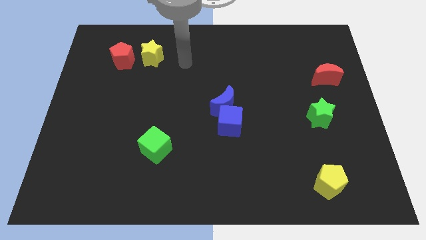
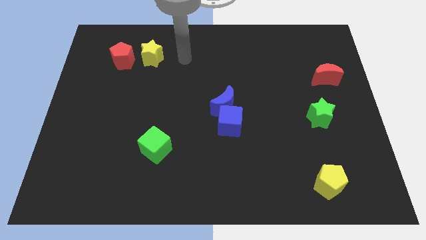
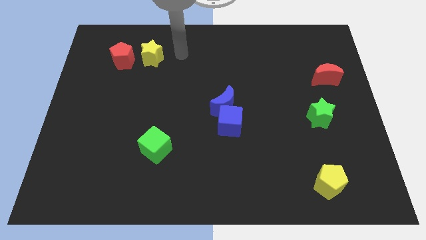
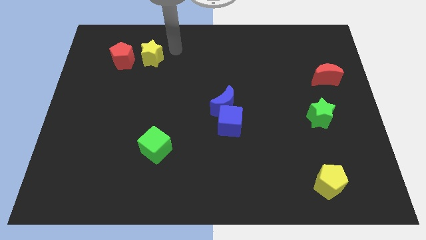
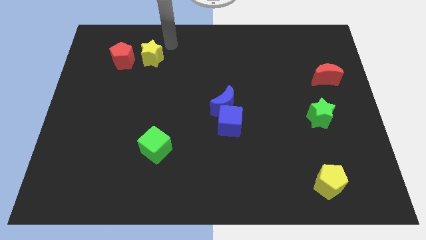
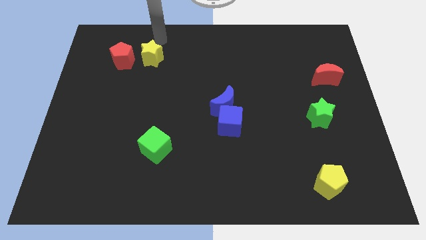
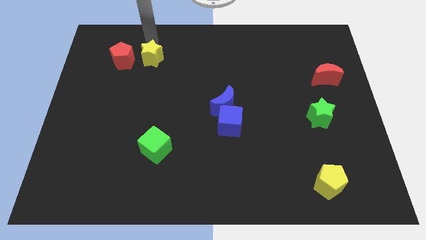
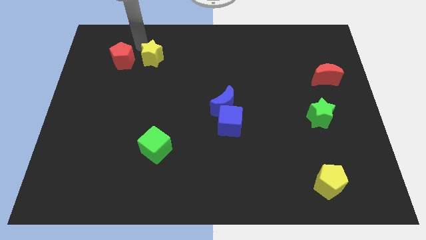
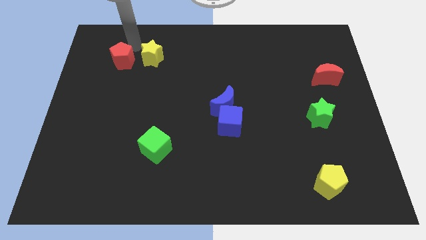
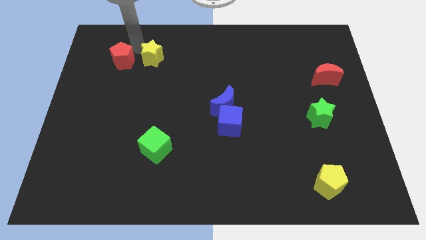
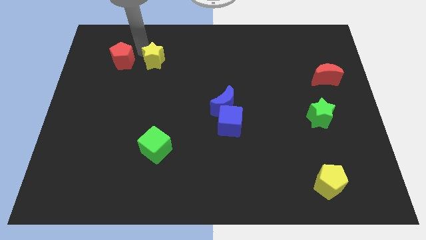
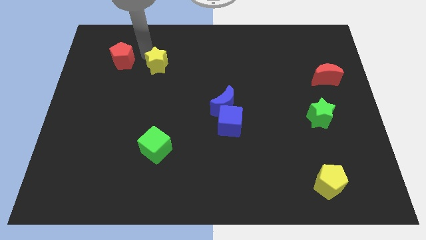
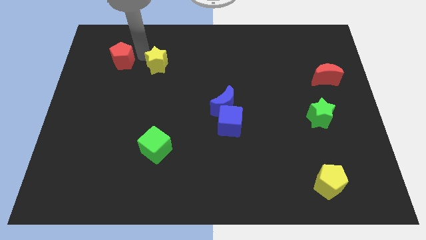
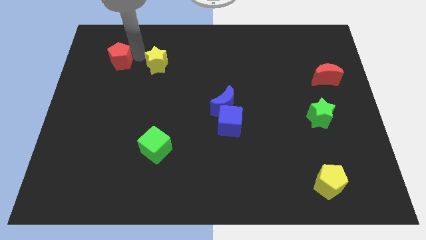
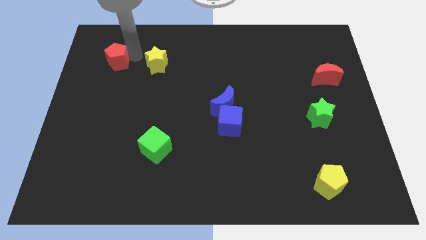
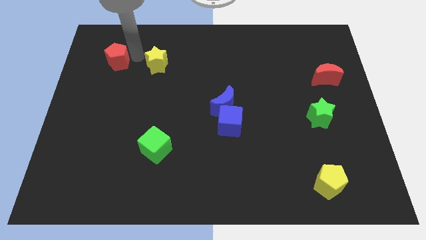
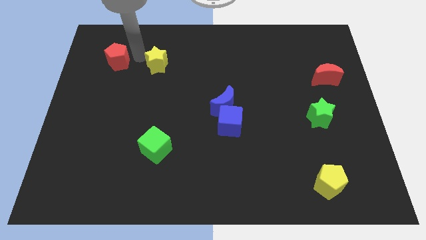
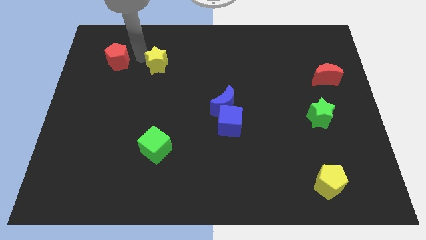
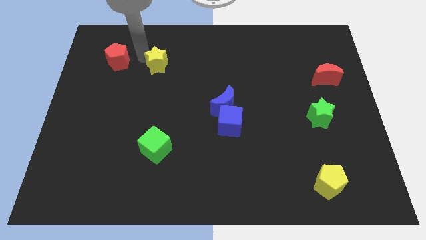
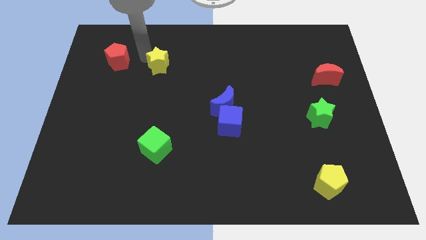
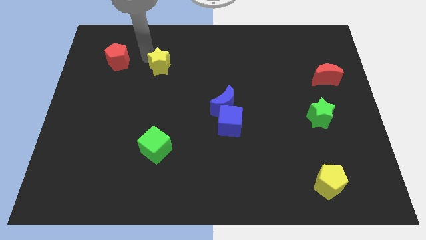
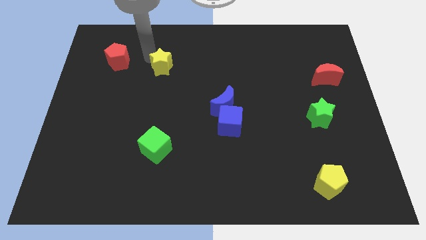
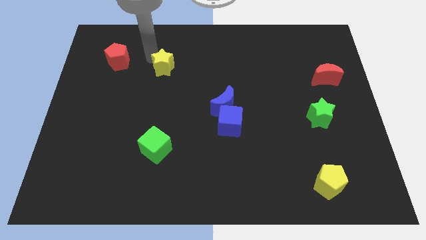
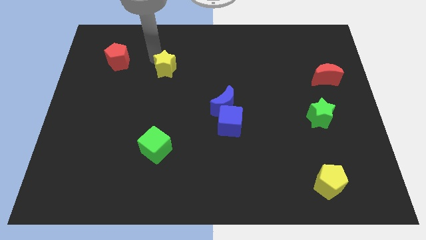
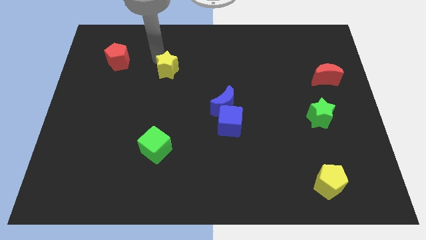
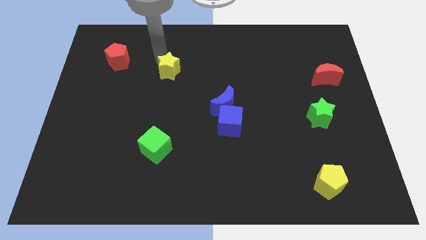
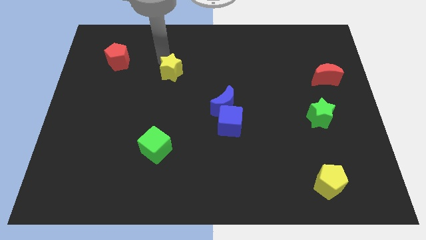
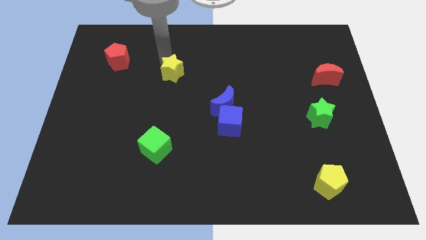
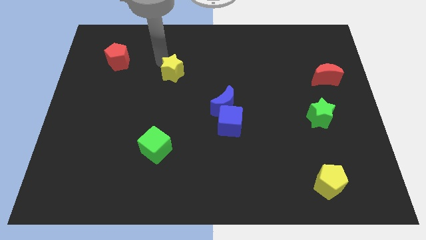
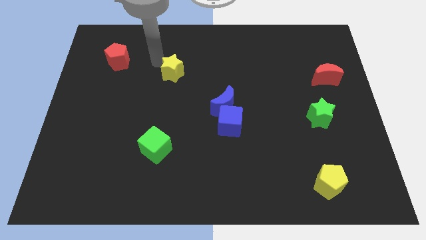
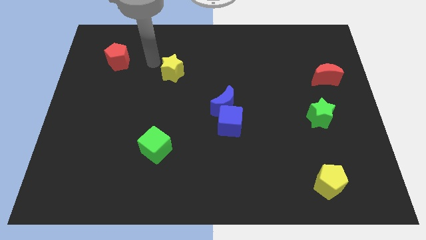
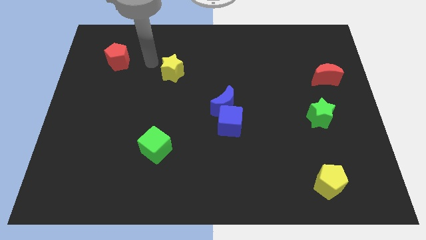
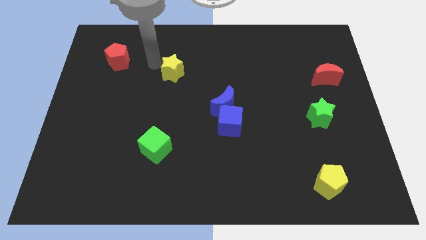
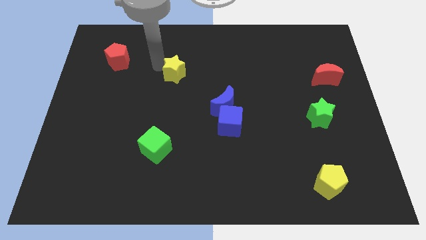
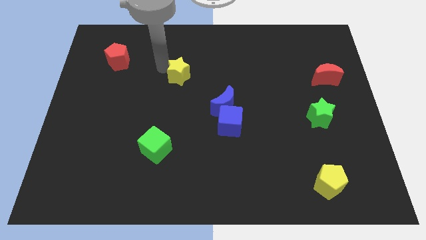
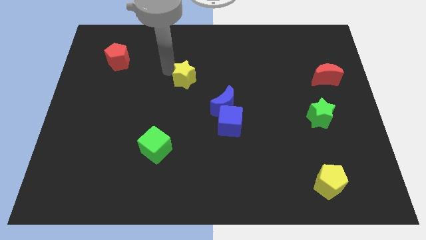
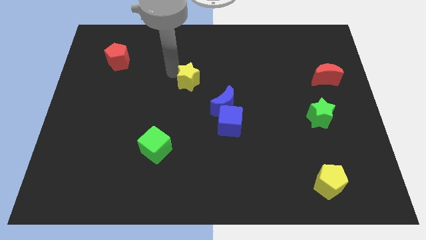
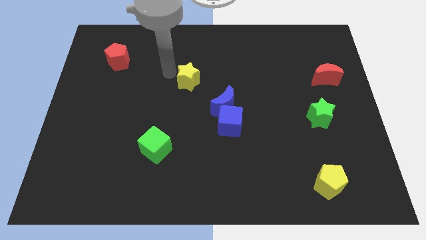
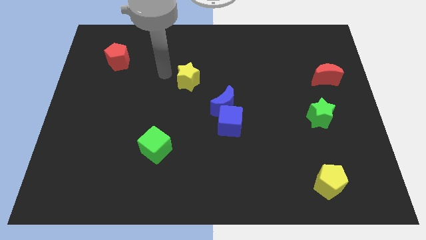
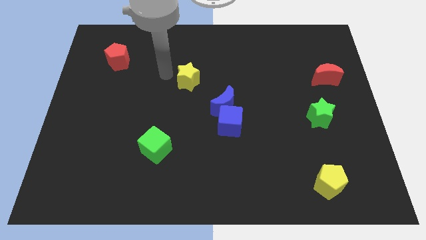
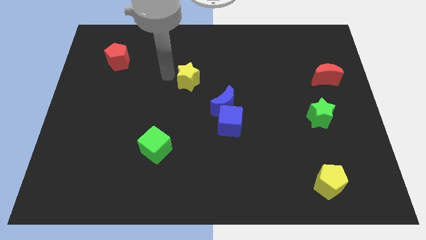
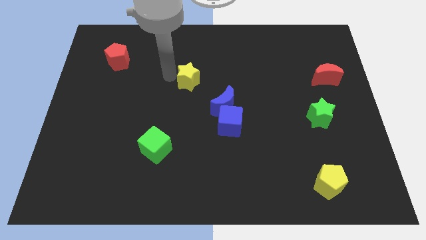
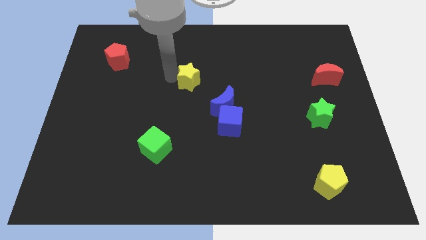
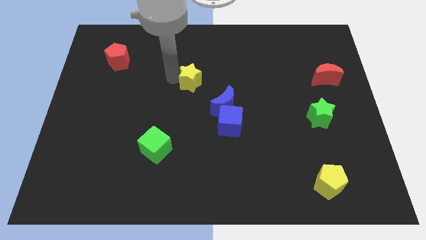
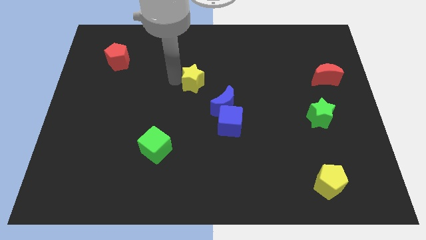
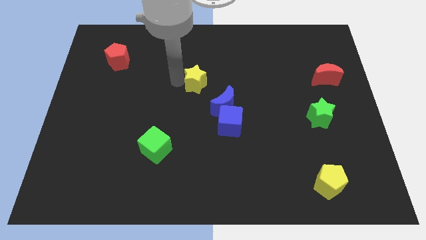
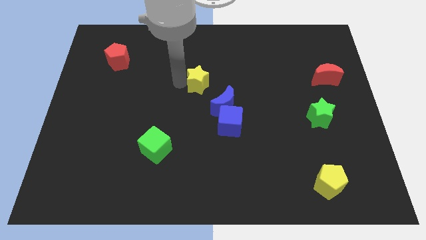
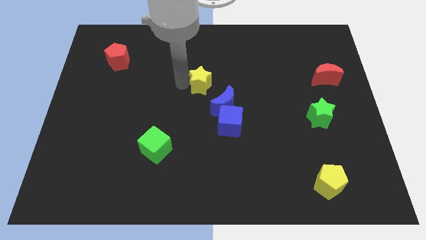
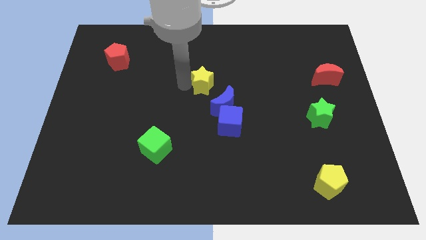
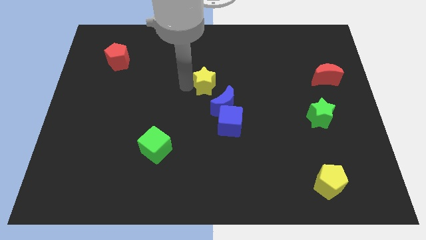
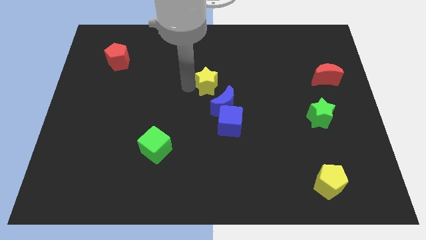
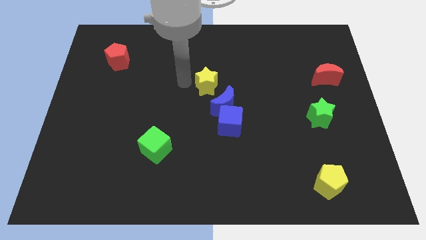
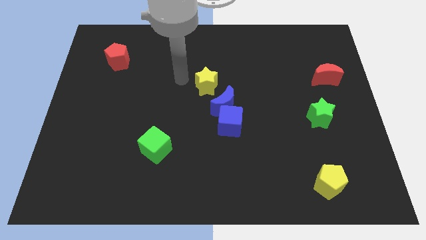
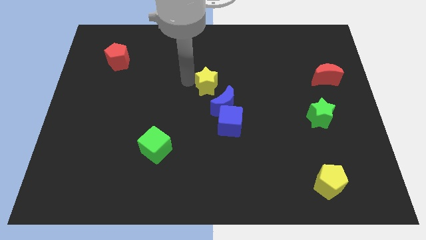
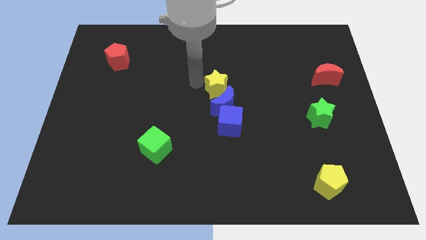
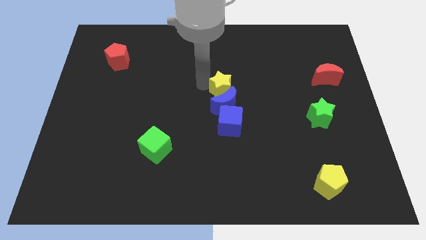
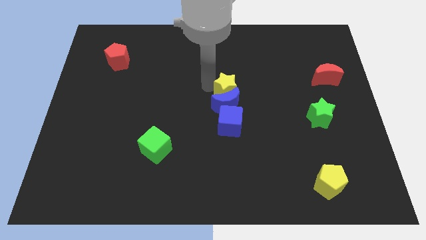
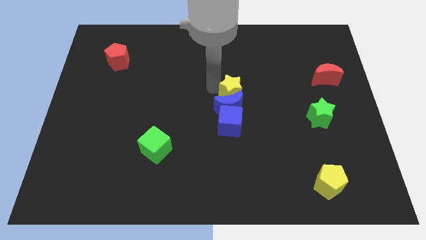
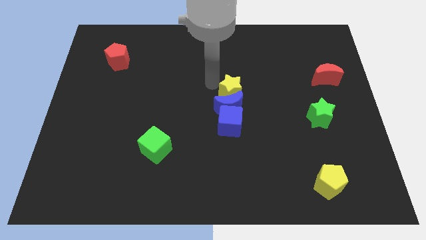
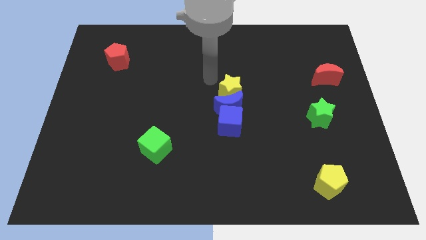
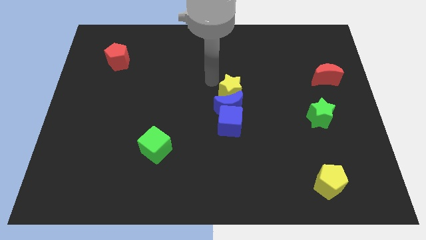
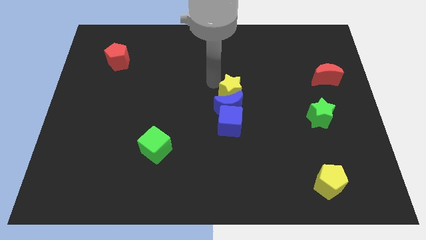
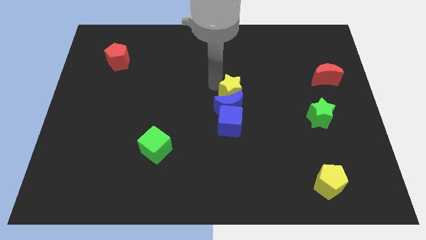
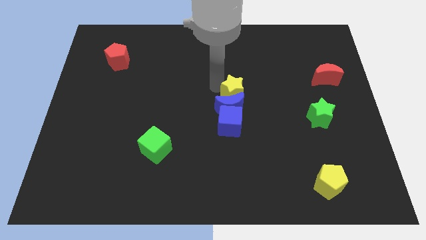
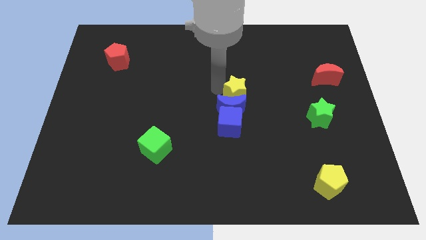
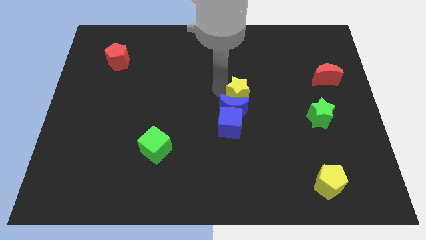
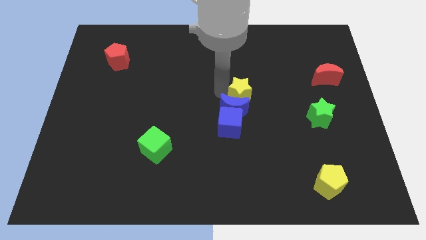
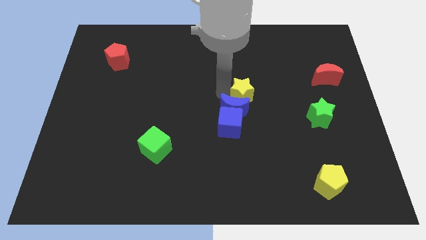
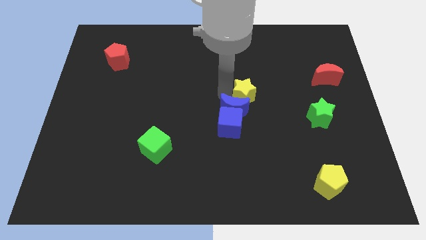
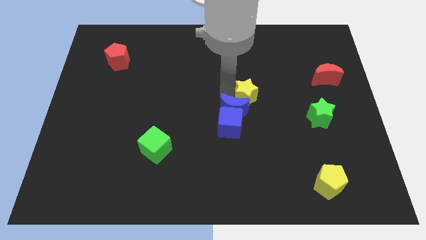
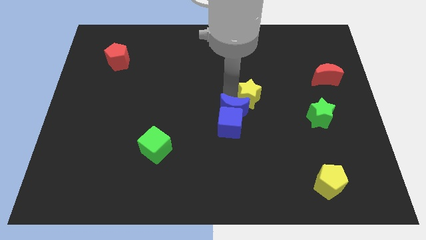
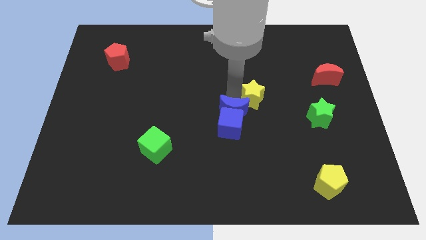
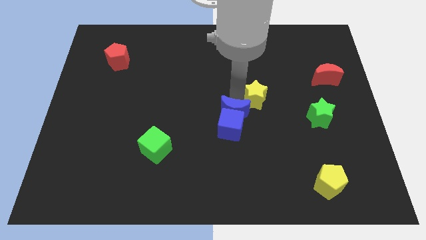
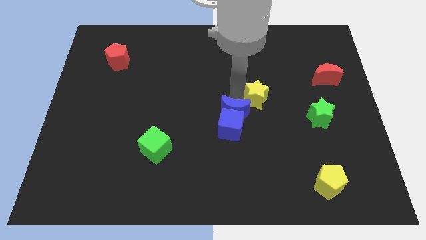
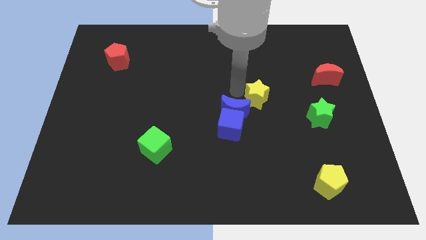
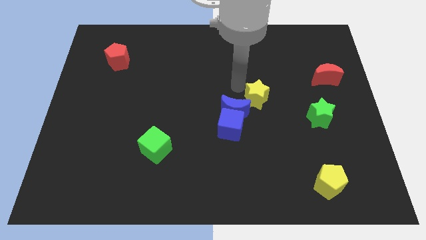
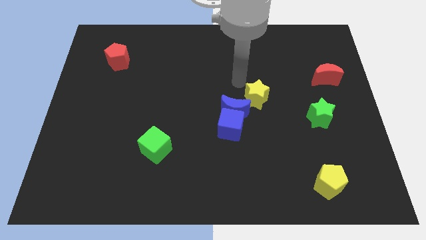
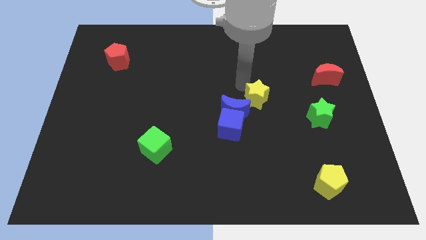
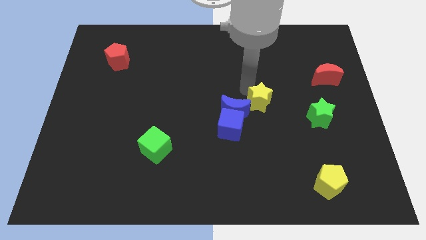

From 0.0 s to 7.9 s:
push the yellow star to the left side of the green star

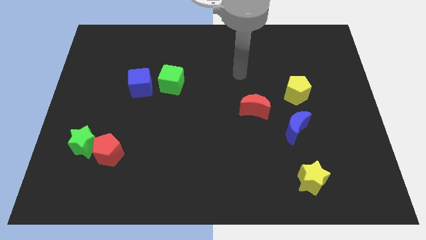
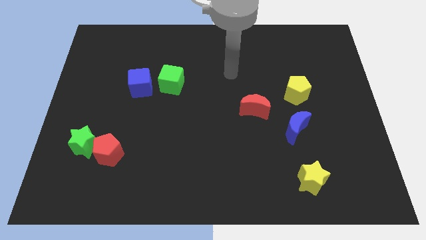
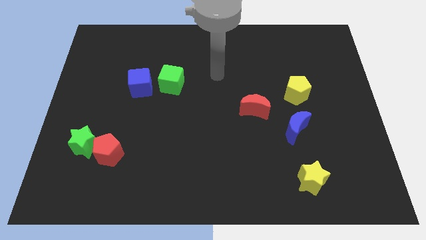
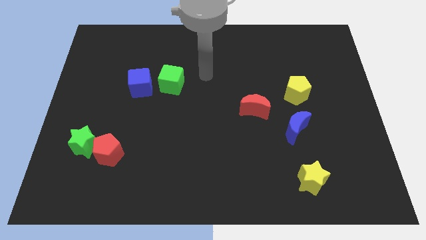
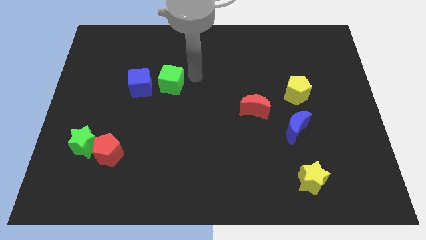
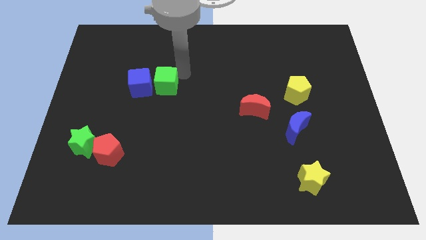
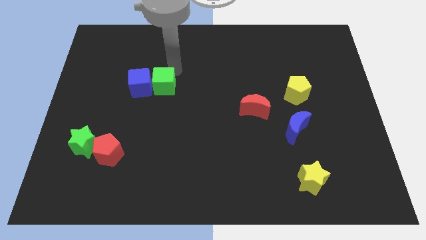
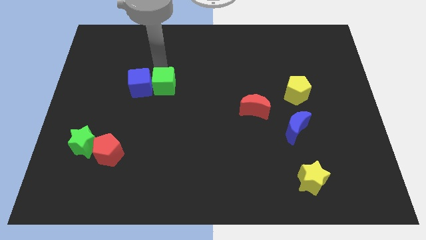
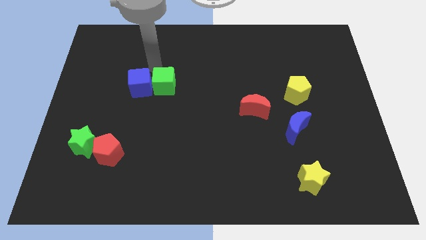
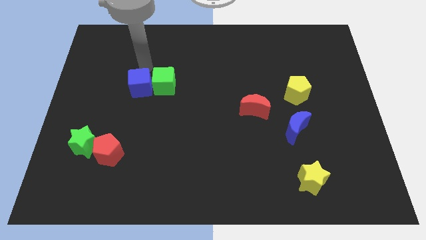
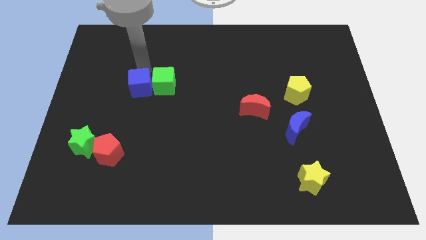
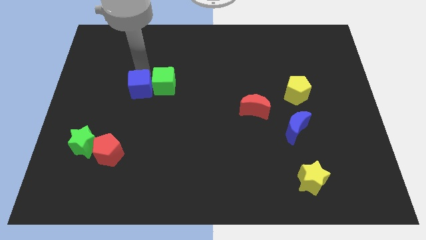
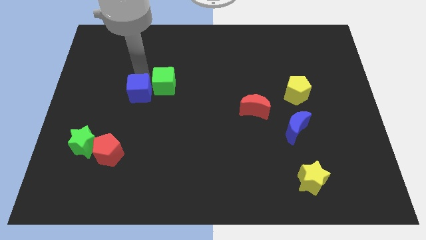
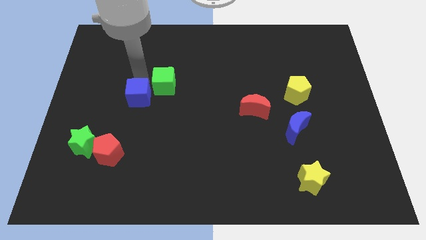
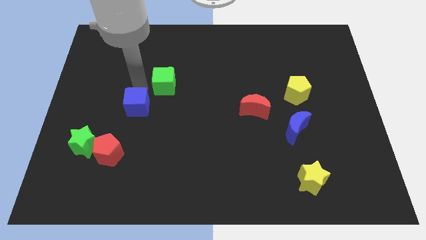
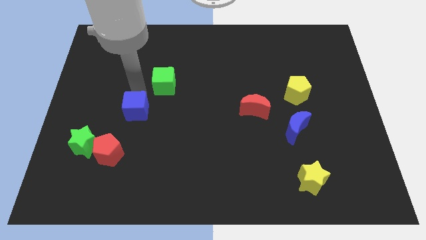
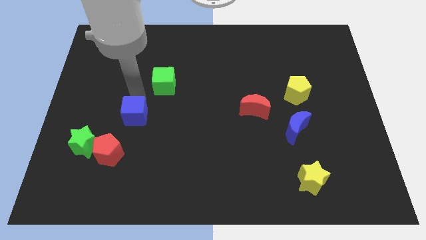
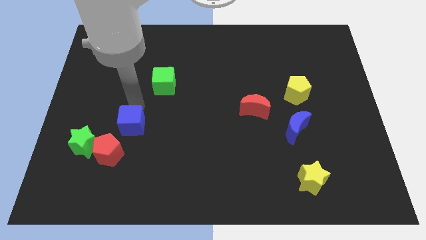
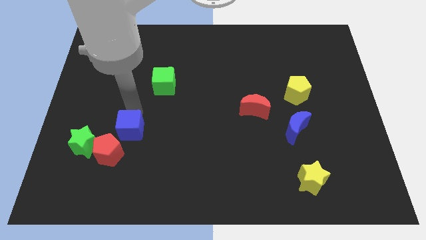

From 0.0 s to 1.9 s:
slide the blue cube just right of the green star
